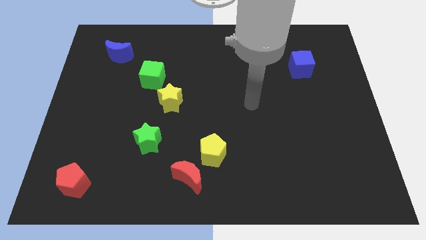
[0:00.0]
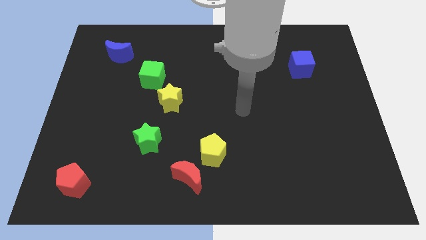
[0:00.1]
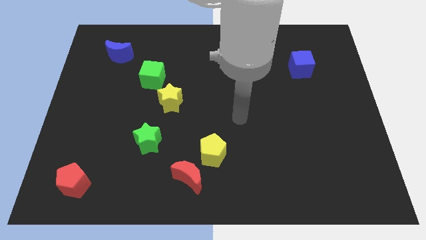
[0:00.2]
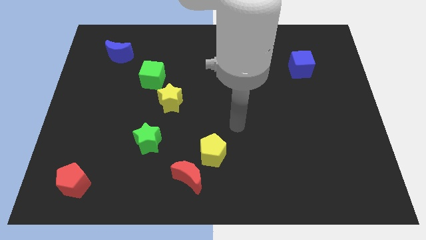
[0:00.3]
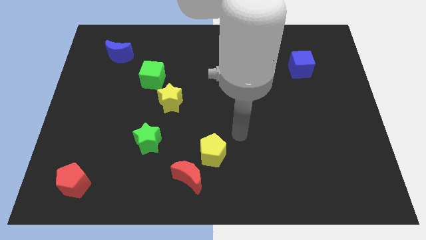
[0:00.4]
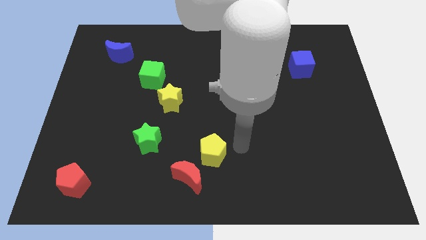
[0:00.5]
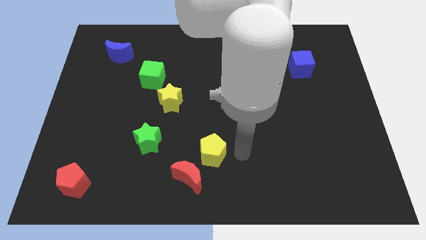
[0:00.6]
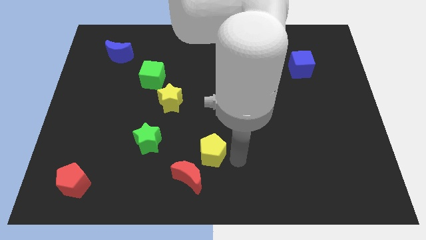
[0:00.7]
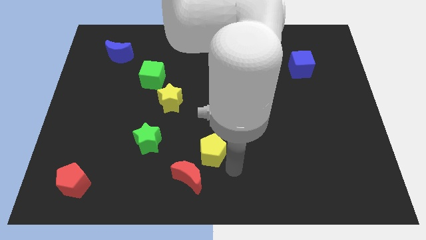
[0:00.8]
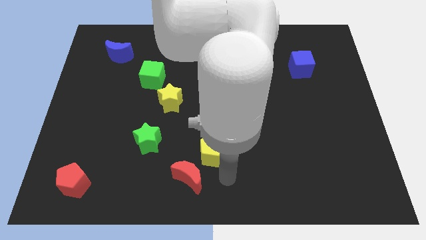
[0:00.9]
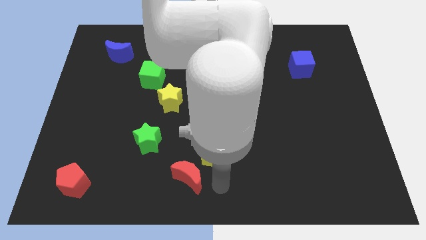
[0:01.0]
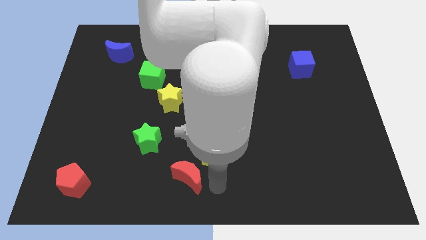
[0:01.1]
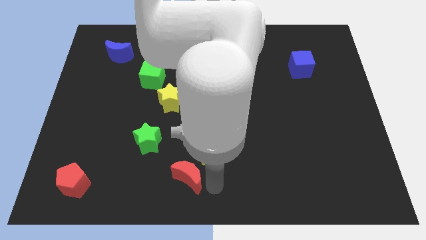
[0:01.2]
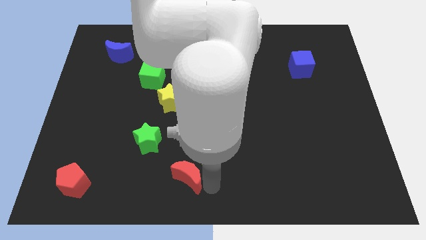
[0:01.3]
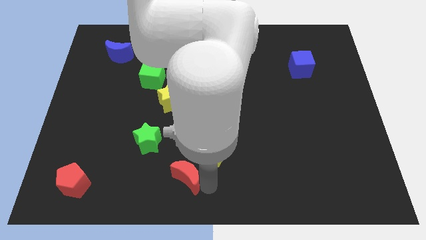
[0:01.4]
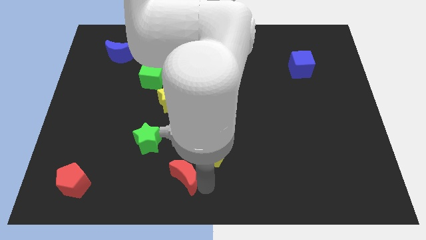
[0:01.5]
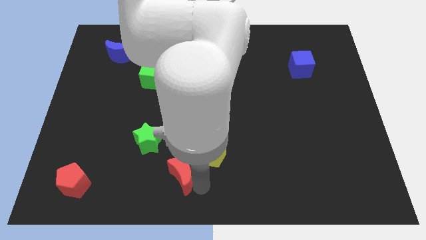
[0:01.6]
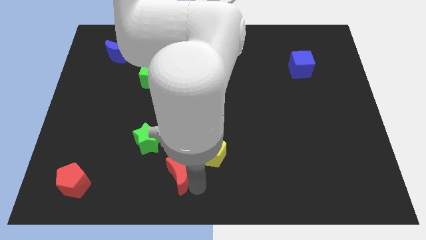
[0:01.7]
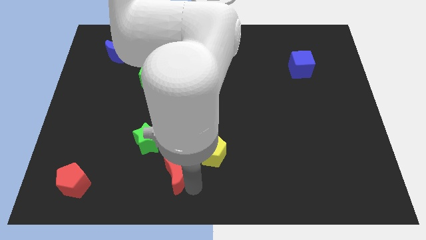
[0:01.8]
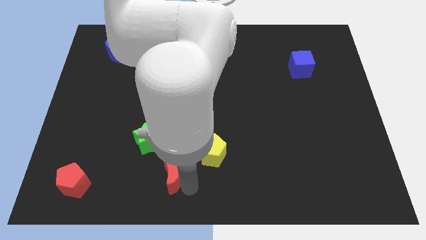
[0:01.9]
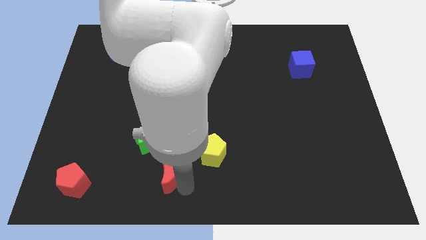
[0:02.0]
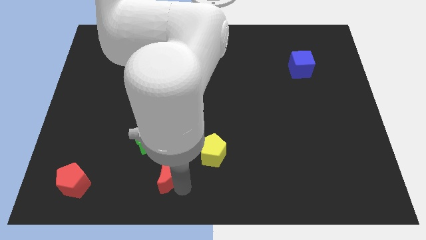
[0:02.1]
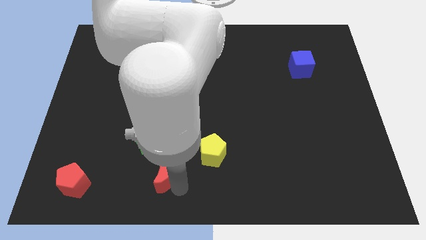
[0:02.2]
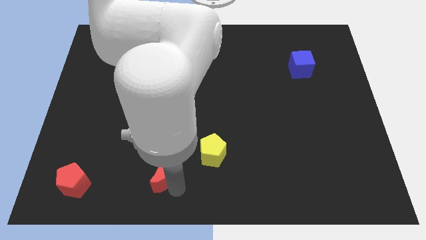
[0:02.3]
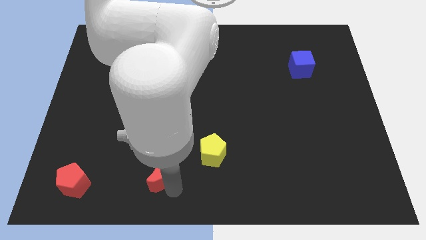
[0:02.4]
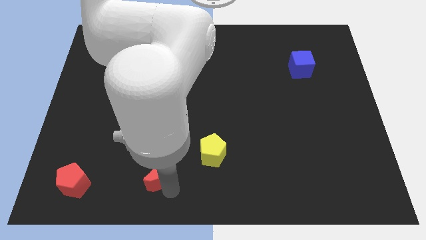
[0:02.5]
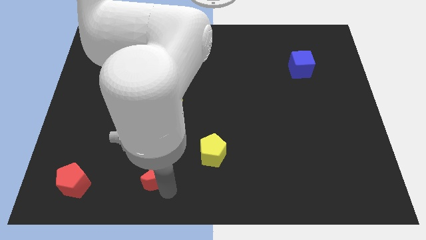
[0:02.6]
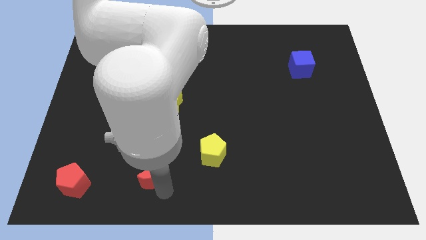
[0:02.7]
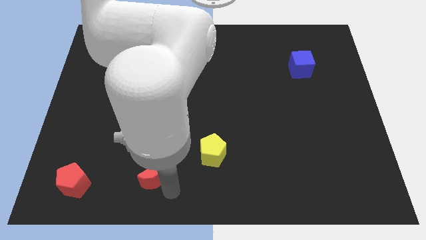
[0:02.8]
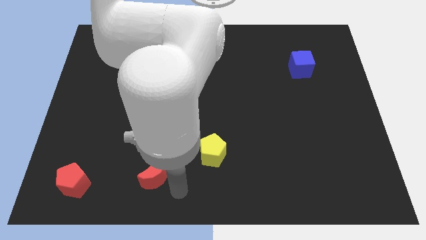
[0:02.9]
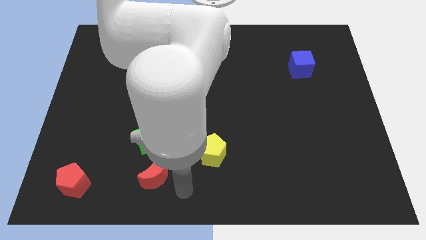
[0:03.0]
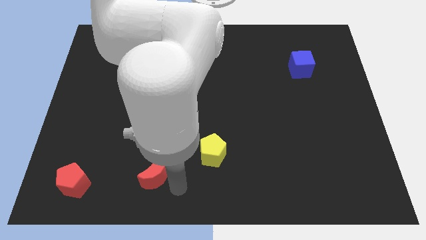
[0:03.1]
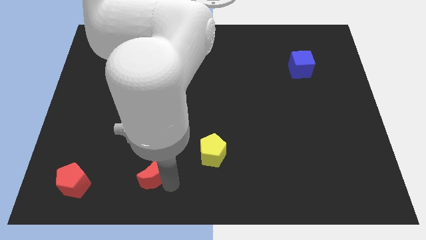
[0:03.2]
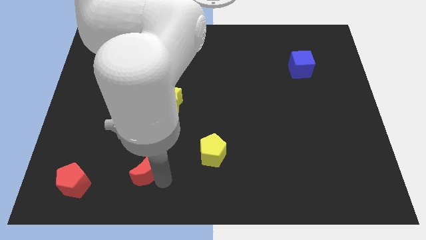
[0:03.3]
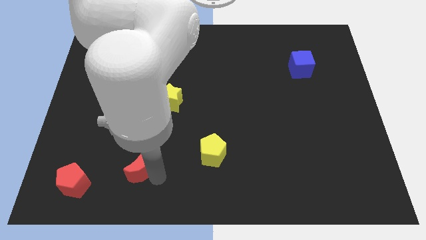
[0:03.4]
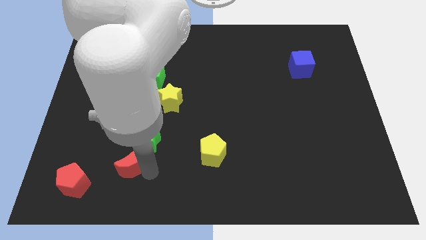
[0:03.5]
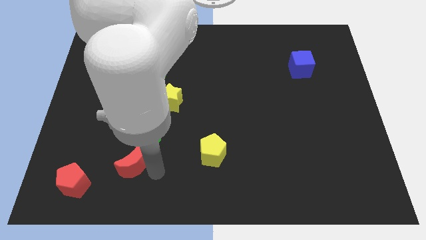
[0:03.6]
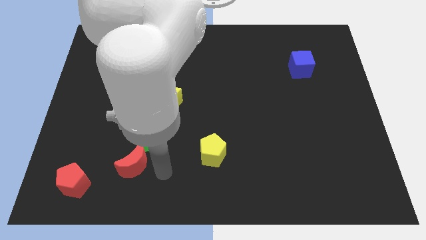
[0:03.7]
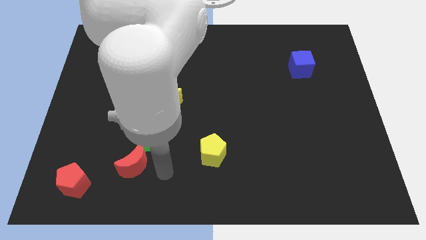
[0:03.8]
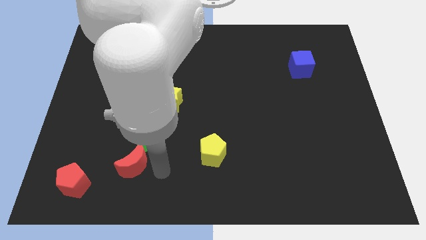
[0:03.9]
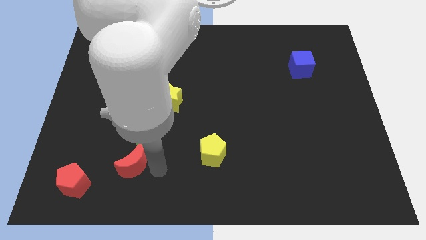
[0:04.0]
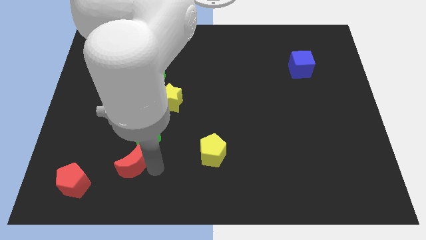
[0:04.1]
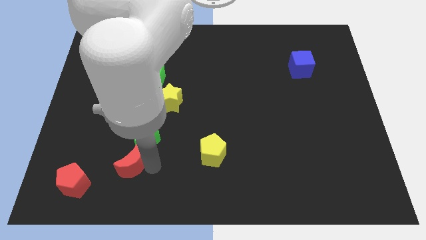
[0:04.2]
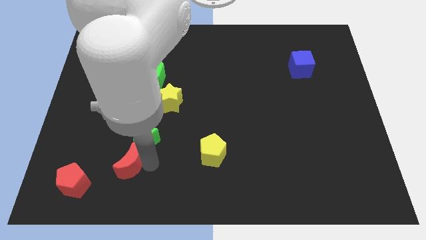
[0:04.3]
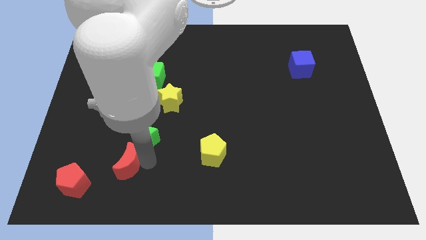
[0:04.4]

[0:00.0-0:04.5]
slide the red moon to the top right of the red pentagon

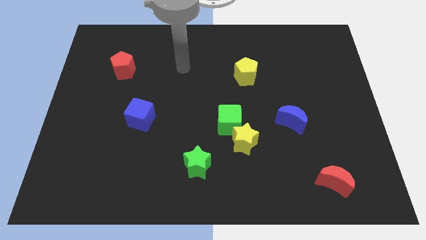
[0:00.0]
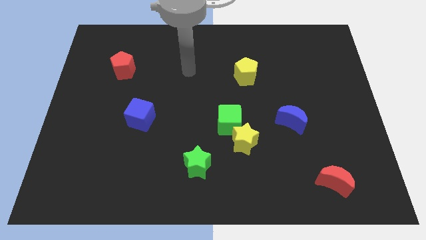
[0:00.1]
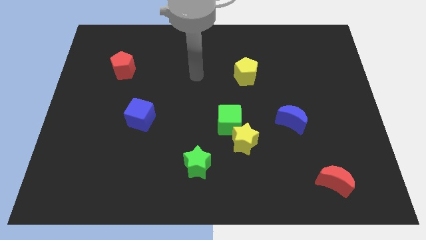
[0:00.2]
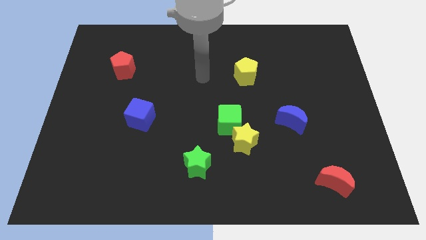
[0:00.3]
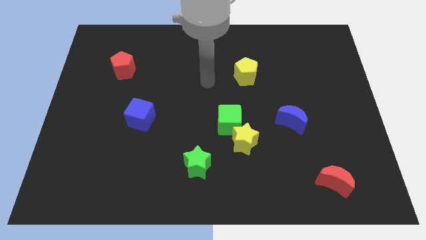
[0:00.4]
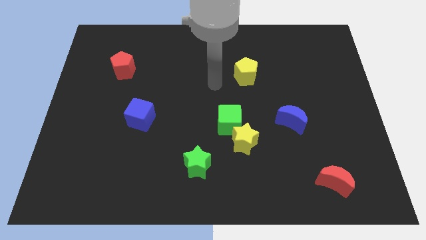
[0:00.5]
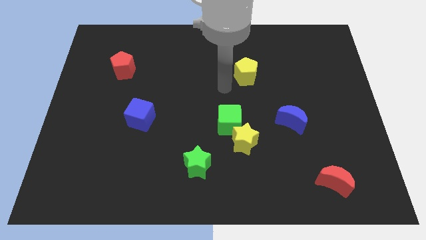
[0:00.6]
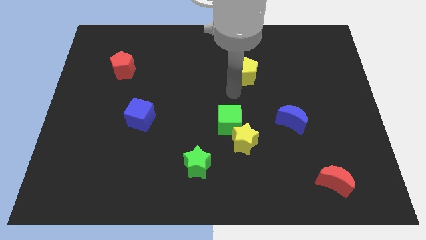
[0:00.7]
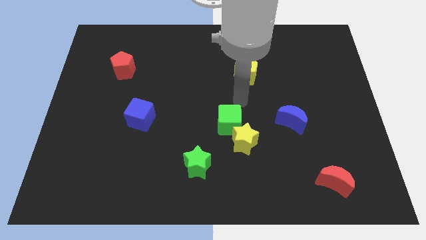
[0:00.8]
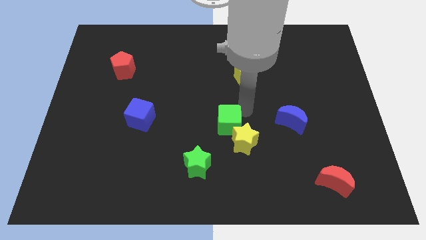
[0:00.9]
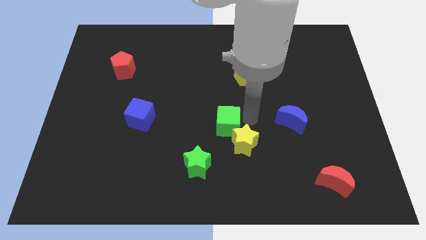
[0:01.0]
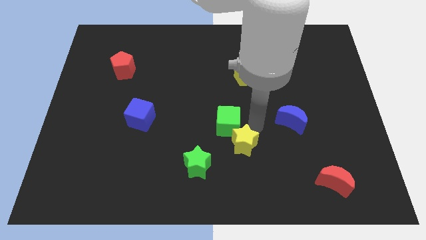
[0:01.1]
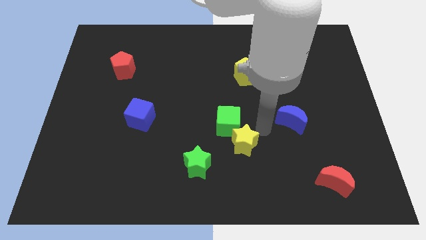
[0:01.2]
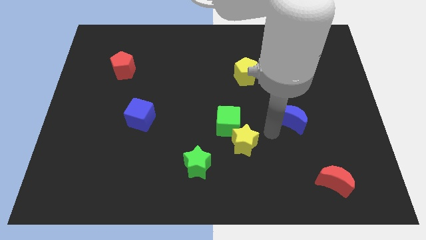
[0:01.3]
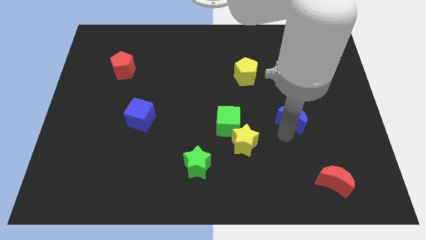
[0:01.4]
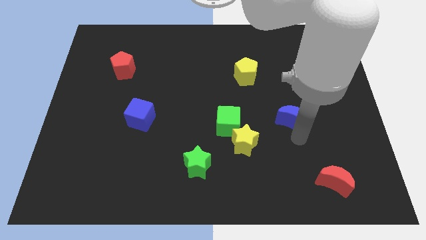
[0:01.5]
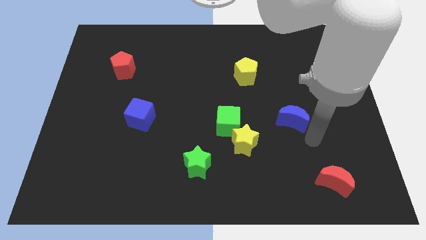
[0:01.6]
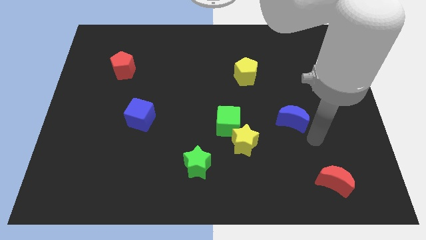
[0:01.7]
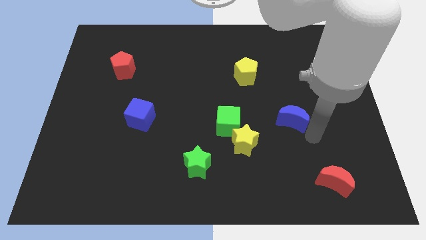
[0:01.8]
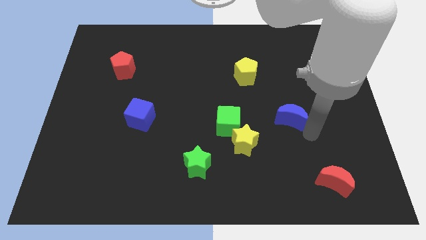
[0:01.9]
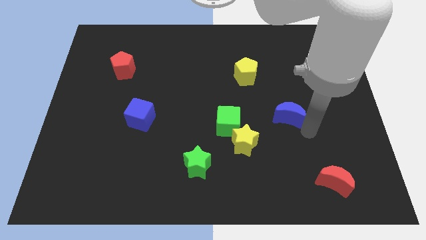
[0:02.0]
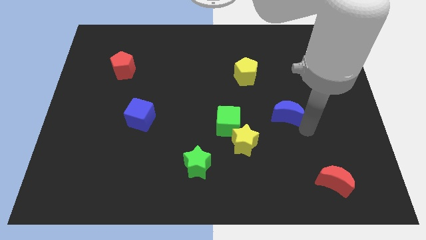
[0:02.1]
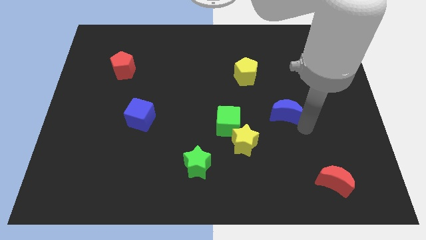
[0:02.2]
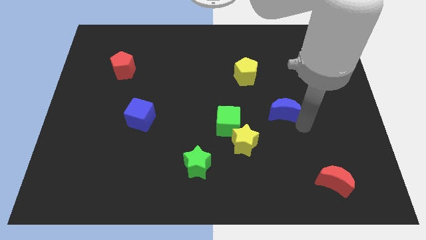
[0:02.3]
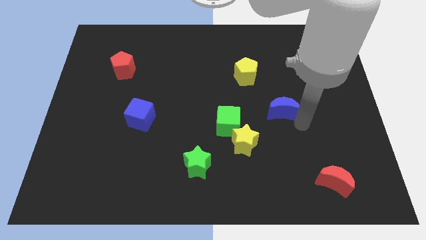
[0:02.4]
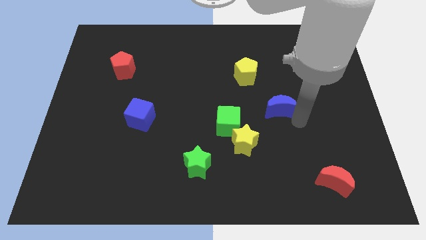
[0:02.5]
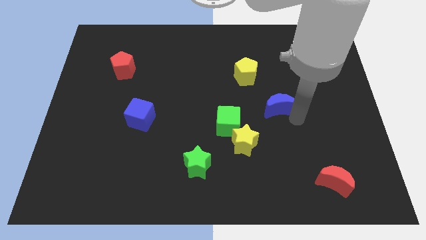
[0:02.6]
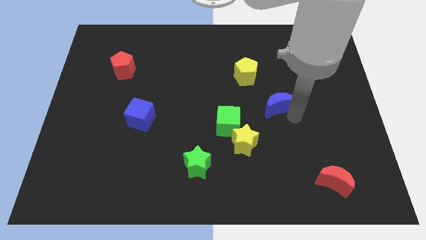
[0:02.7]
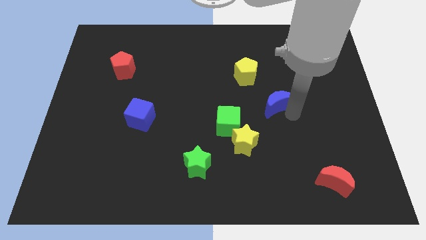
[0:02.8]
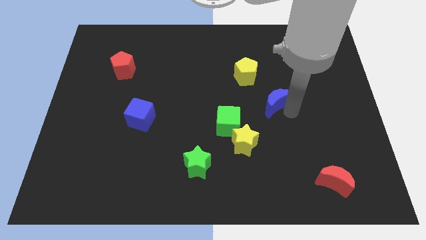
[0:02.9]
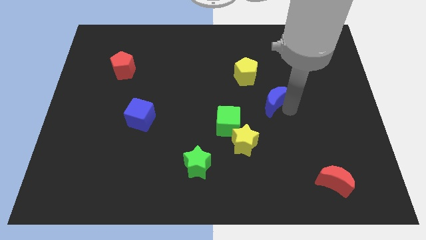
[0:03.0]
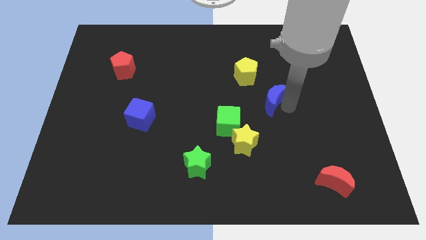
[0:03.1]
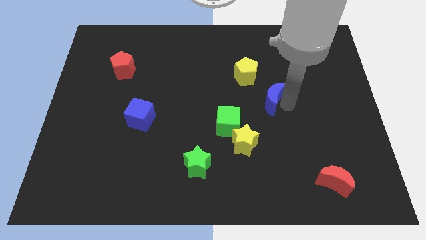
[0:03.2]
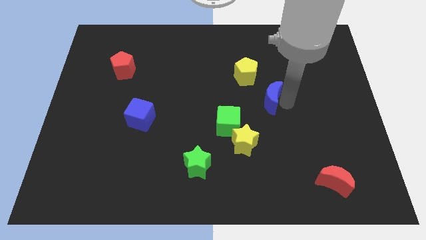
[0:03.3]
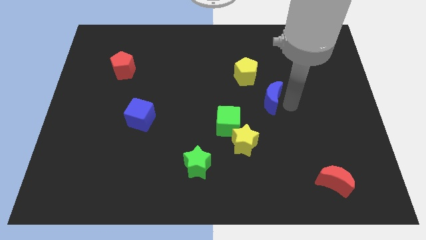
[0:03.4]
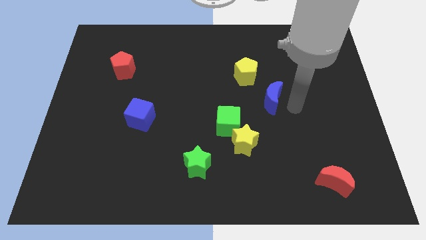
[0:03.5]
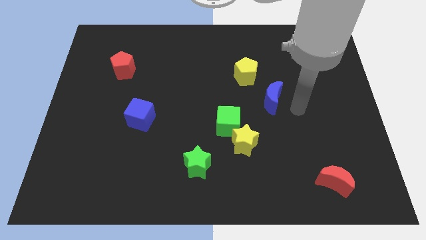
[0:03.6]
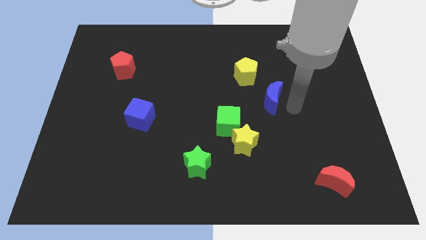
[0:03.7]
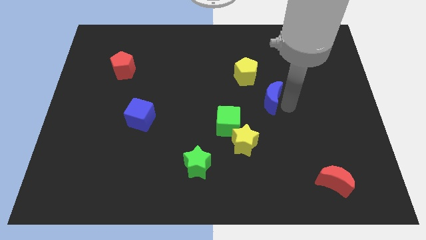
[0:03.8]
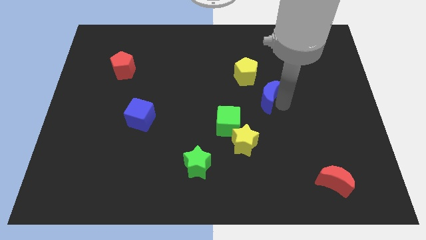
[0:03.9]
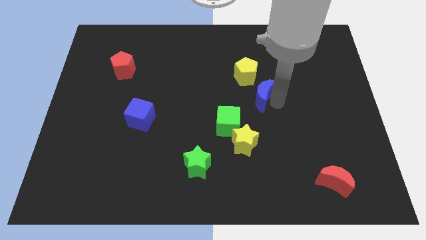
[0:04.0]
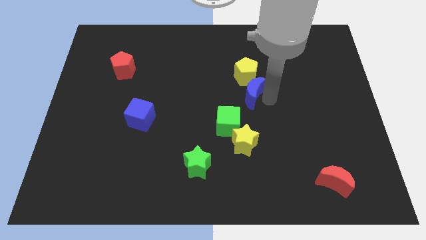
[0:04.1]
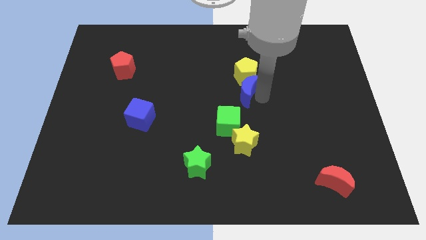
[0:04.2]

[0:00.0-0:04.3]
put the blue moon to the bottom left side of the yellow pentagon
